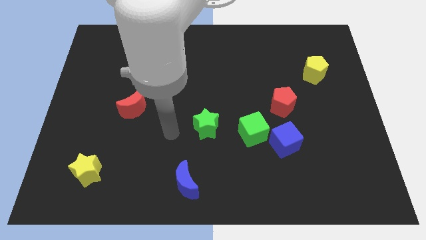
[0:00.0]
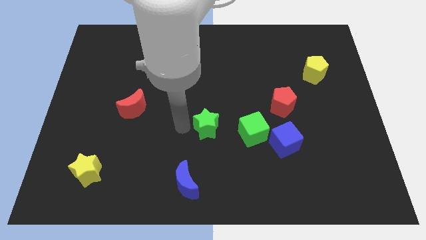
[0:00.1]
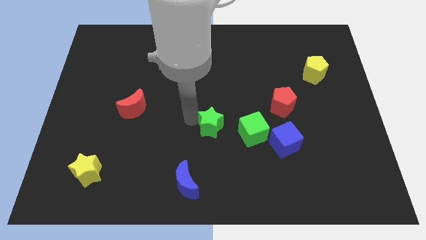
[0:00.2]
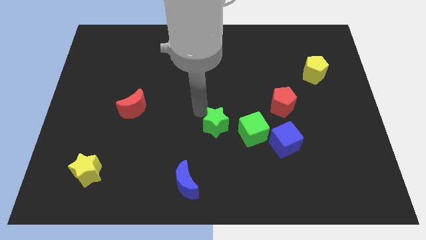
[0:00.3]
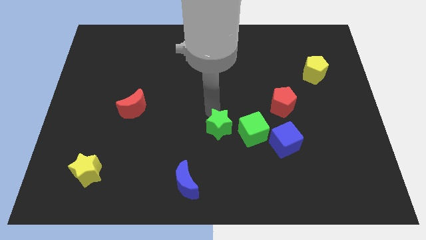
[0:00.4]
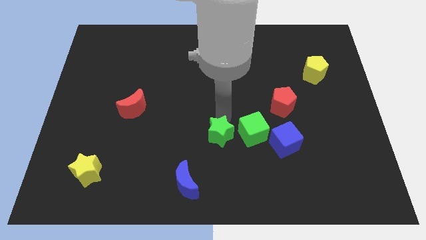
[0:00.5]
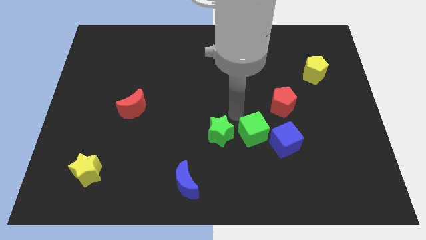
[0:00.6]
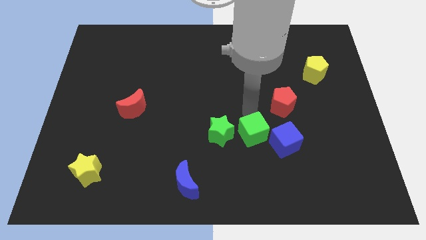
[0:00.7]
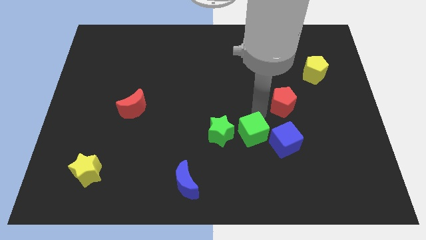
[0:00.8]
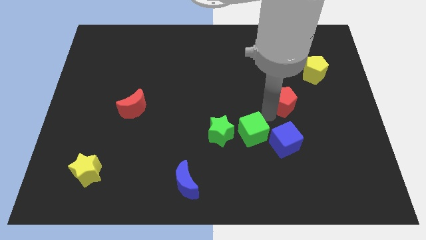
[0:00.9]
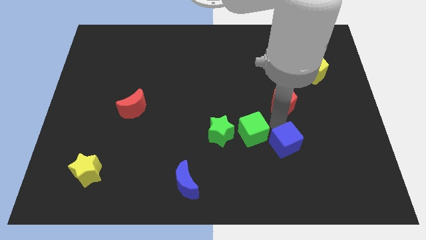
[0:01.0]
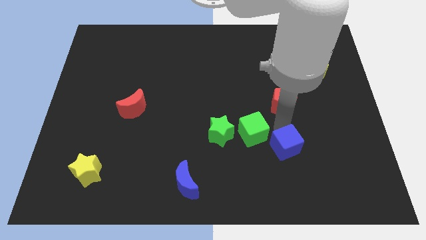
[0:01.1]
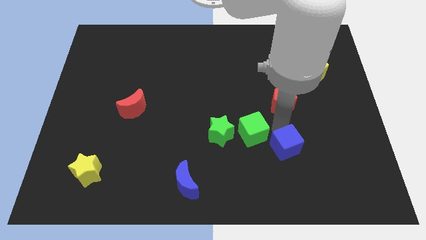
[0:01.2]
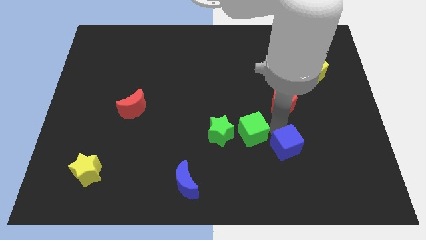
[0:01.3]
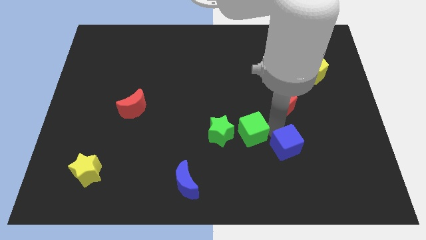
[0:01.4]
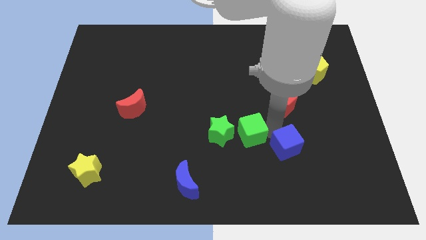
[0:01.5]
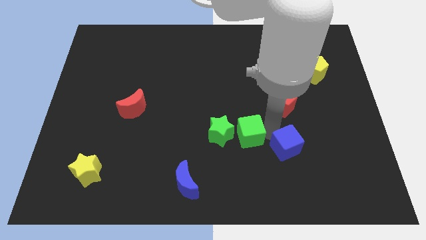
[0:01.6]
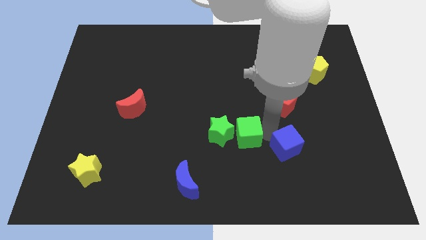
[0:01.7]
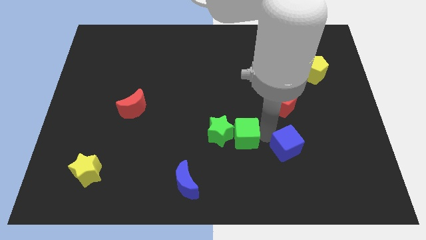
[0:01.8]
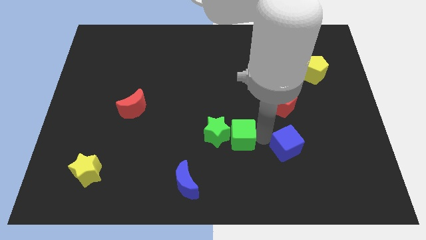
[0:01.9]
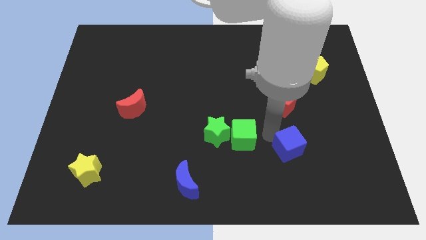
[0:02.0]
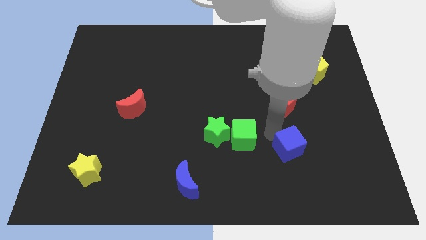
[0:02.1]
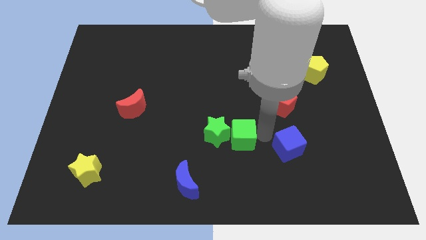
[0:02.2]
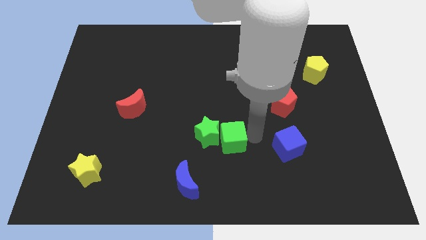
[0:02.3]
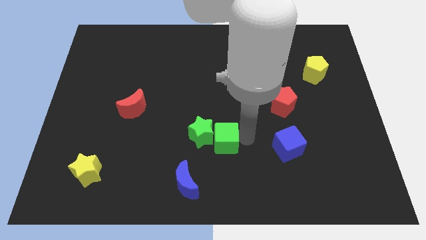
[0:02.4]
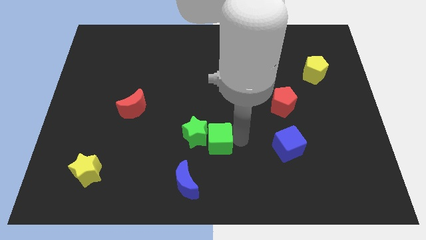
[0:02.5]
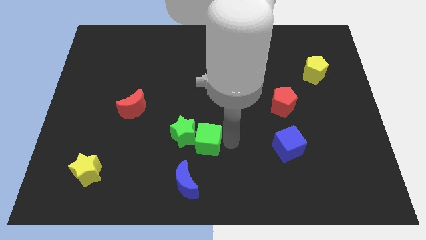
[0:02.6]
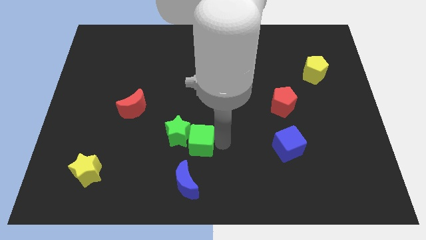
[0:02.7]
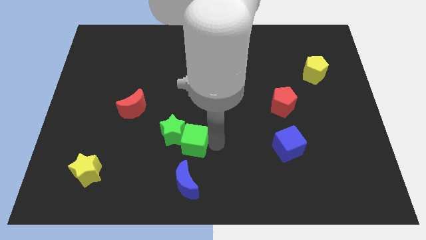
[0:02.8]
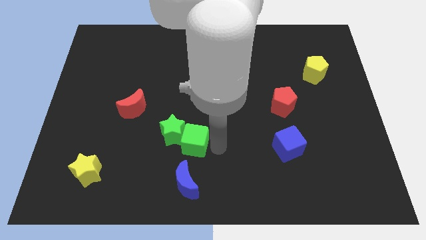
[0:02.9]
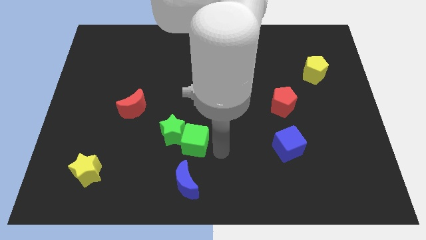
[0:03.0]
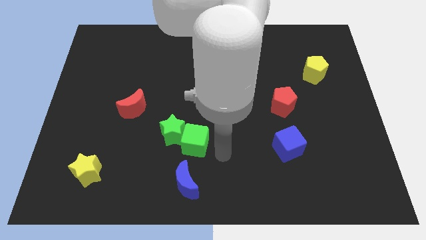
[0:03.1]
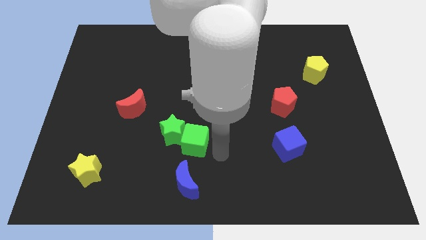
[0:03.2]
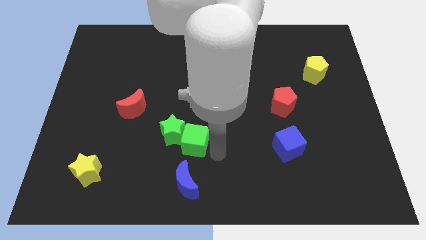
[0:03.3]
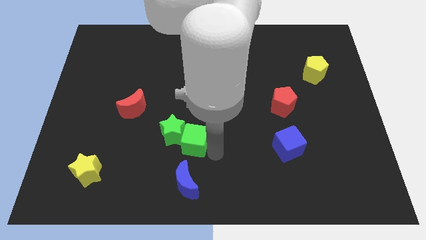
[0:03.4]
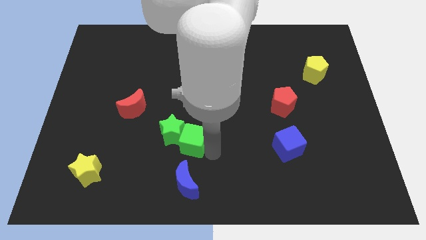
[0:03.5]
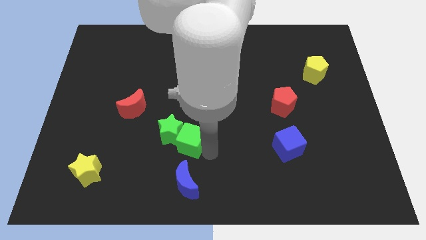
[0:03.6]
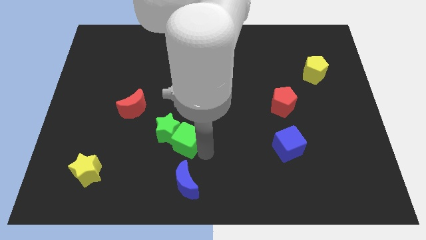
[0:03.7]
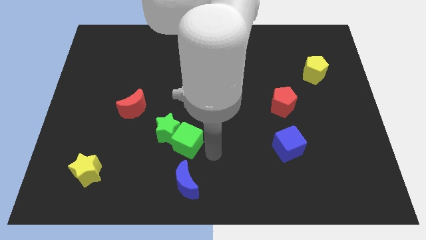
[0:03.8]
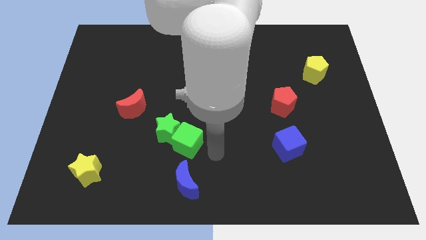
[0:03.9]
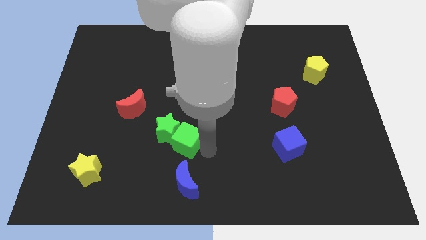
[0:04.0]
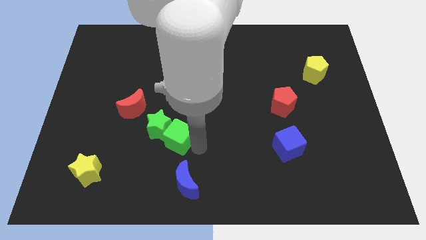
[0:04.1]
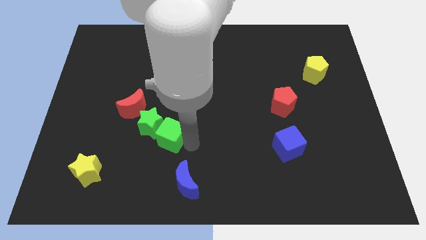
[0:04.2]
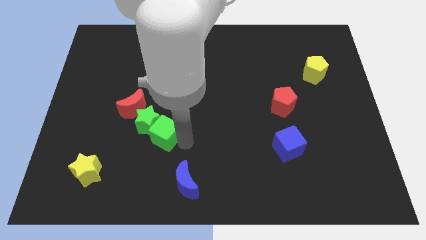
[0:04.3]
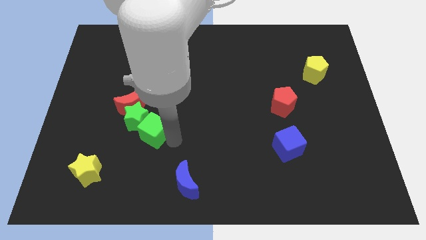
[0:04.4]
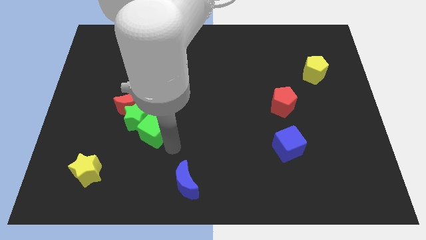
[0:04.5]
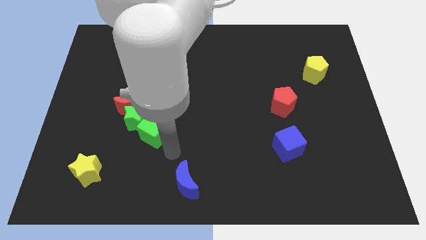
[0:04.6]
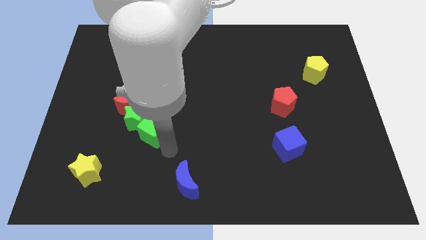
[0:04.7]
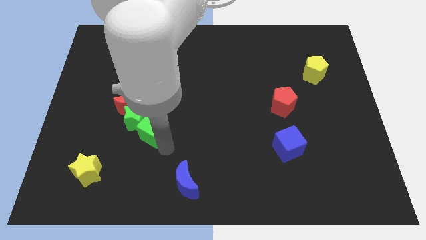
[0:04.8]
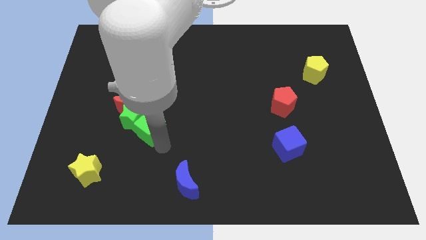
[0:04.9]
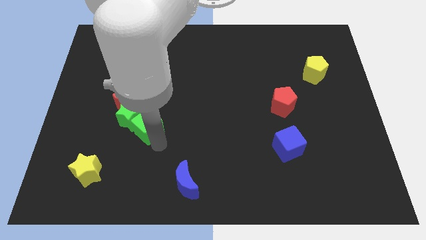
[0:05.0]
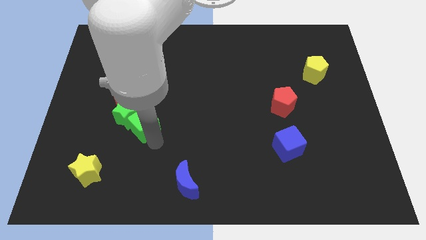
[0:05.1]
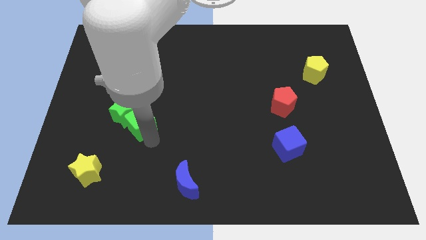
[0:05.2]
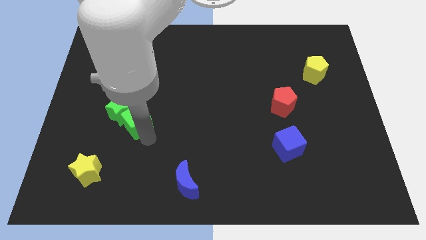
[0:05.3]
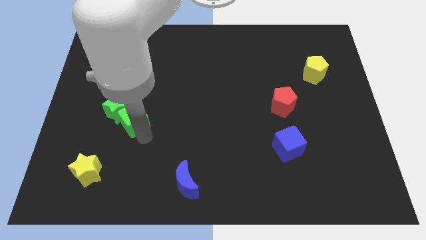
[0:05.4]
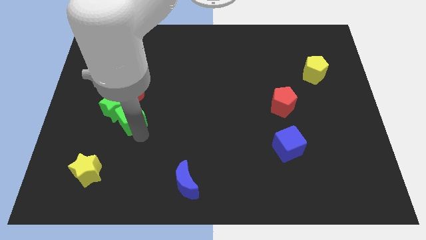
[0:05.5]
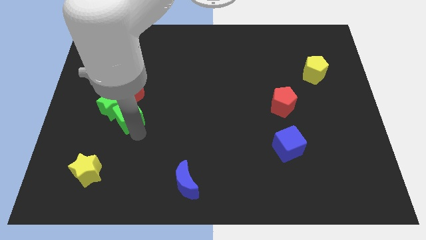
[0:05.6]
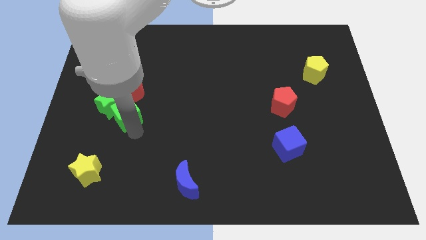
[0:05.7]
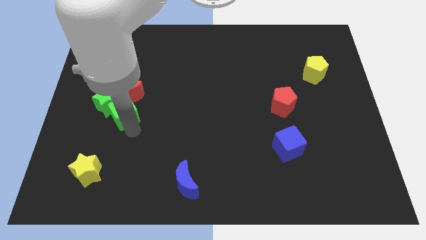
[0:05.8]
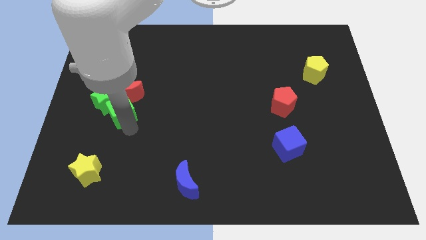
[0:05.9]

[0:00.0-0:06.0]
slide the green cube to the red moon

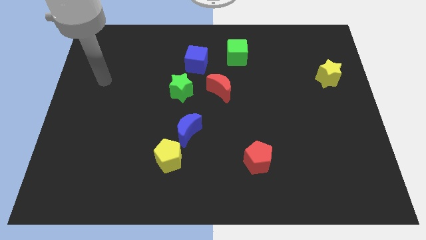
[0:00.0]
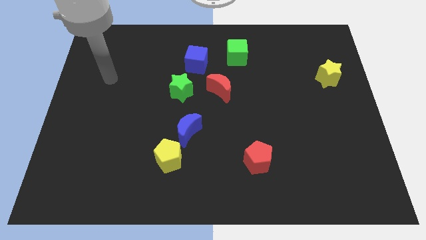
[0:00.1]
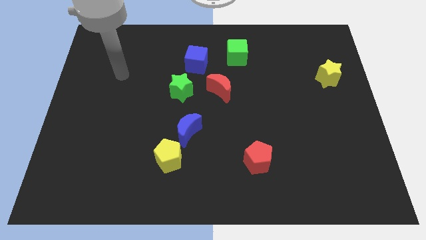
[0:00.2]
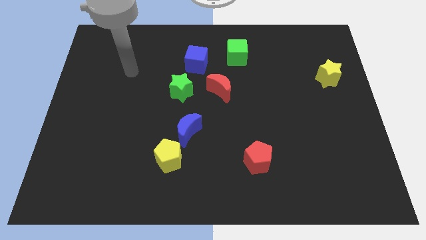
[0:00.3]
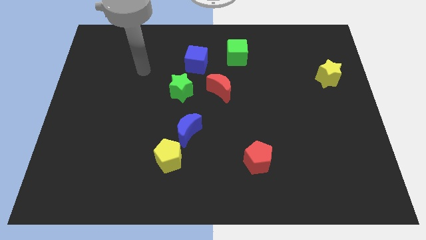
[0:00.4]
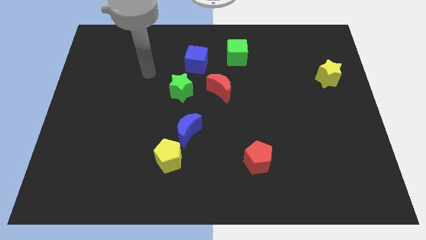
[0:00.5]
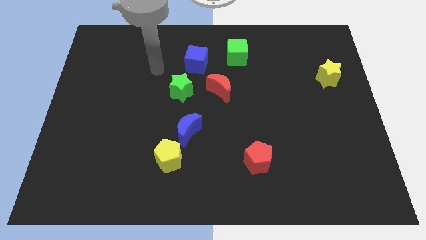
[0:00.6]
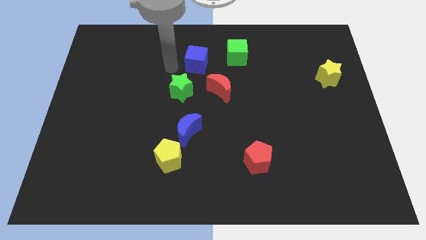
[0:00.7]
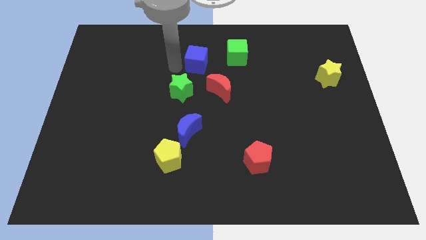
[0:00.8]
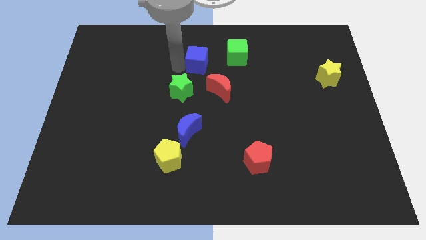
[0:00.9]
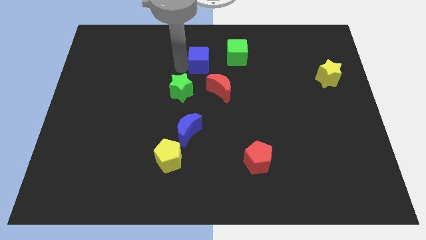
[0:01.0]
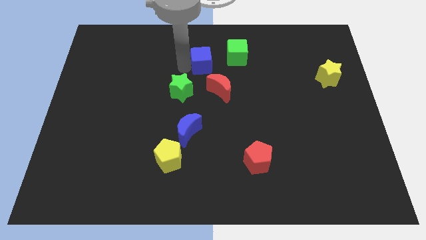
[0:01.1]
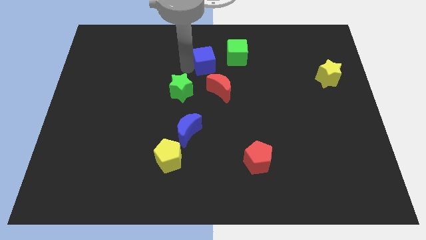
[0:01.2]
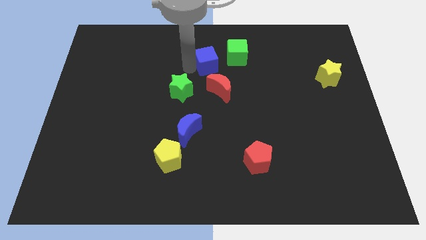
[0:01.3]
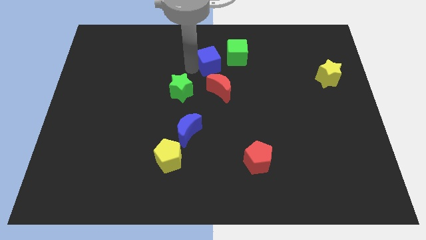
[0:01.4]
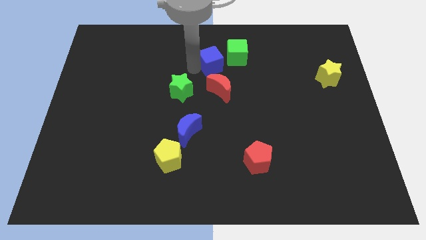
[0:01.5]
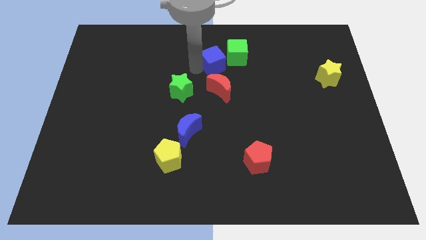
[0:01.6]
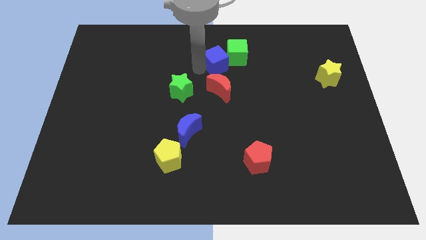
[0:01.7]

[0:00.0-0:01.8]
put the blue cube close to the green cube

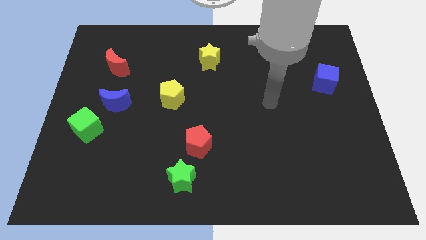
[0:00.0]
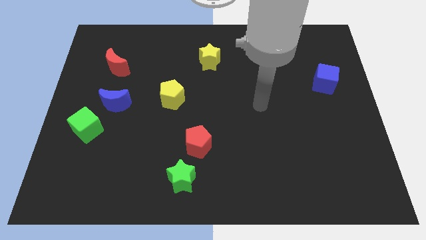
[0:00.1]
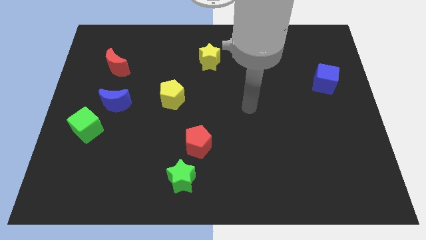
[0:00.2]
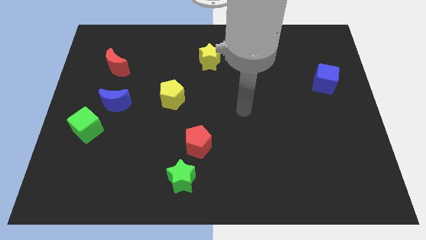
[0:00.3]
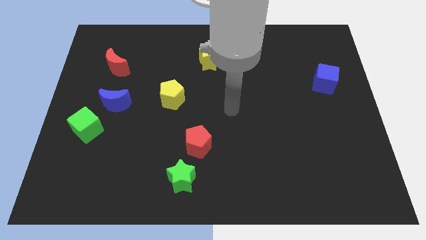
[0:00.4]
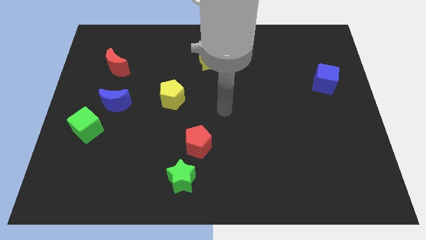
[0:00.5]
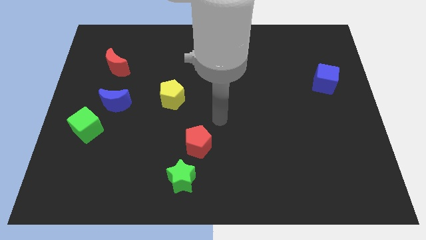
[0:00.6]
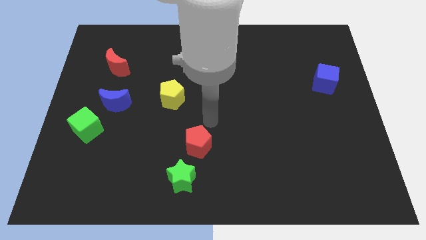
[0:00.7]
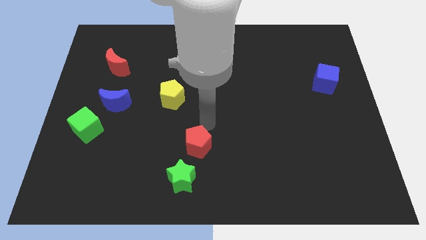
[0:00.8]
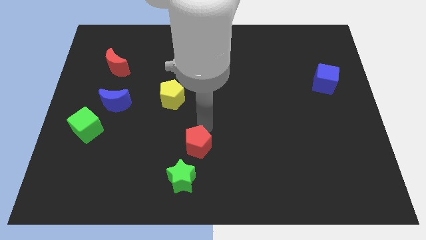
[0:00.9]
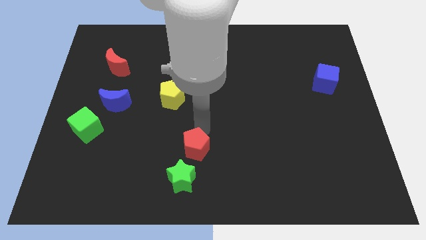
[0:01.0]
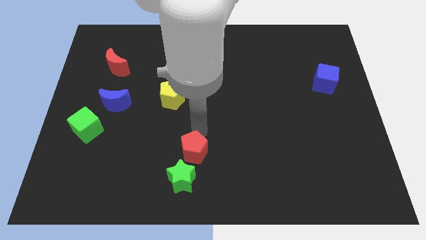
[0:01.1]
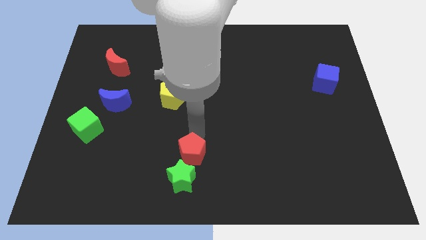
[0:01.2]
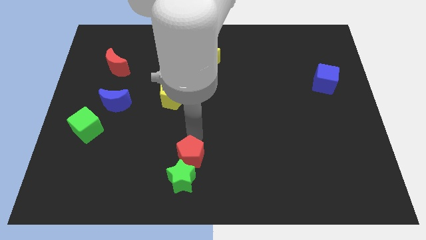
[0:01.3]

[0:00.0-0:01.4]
slide the red pentagon next to the green star
